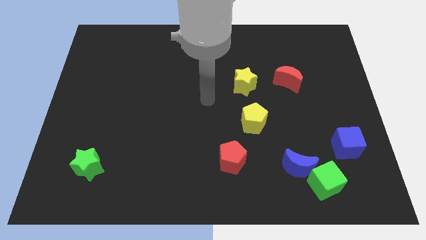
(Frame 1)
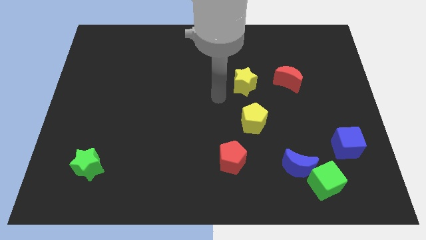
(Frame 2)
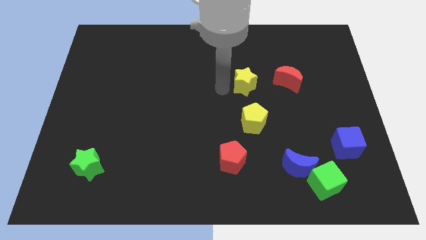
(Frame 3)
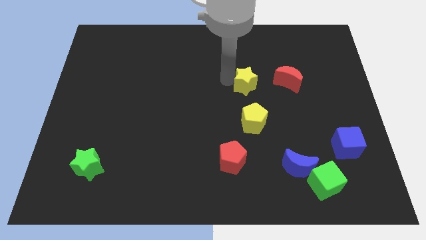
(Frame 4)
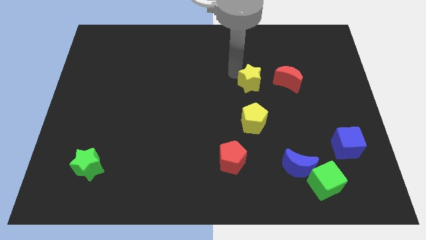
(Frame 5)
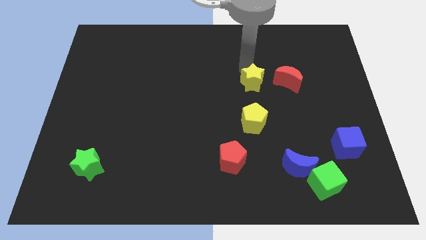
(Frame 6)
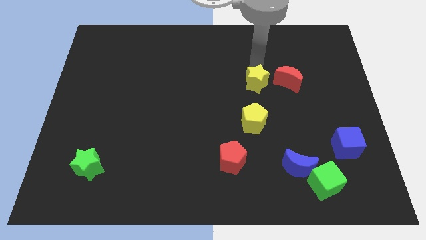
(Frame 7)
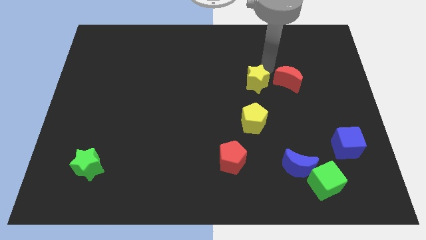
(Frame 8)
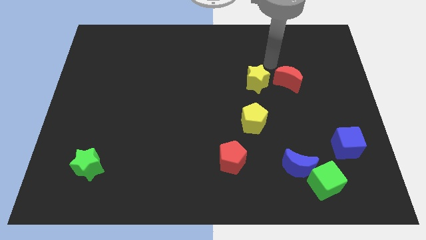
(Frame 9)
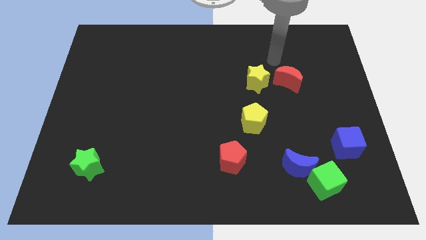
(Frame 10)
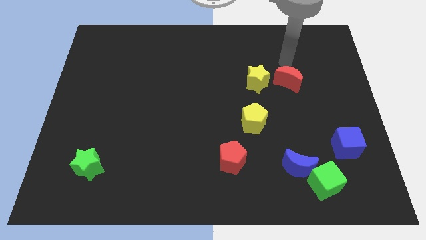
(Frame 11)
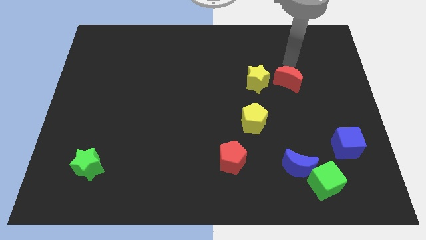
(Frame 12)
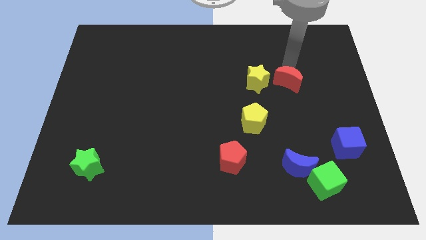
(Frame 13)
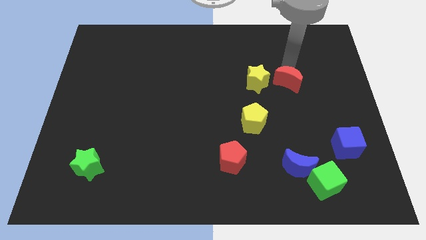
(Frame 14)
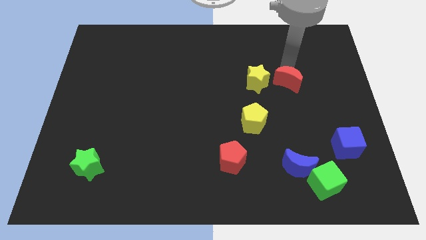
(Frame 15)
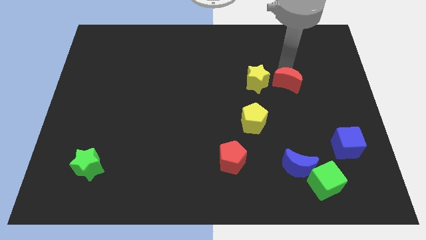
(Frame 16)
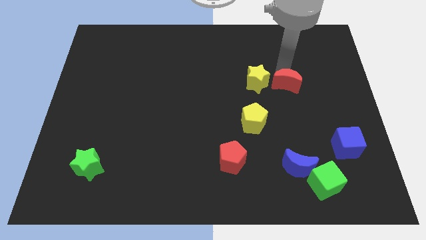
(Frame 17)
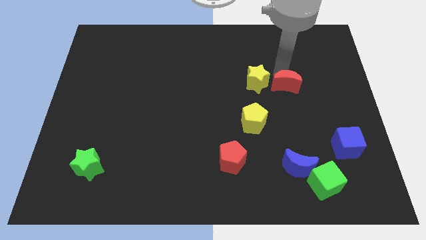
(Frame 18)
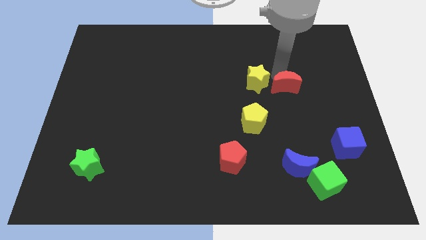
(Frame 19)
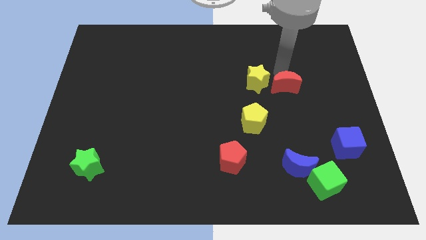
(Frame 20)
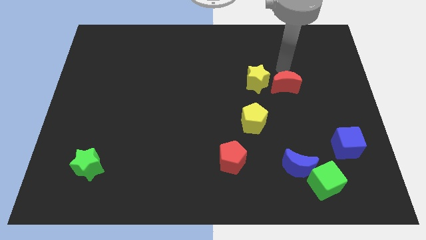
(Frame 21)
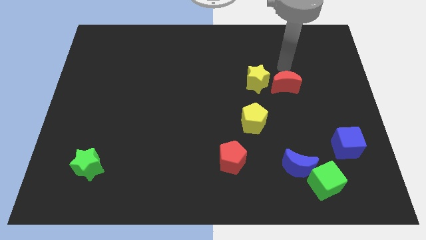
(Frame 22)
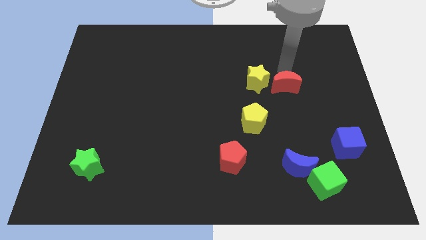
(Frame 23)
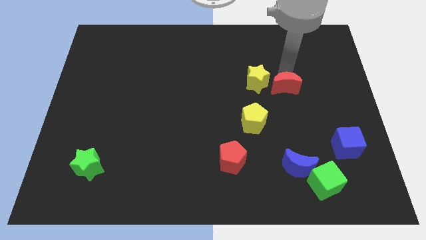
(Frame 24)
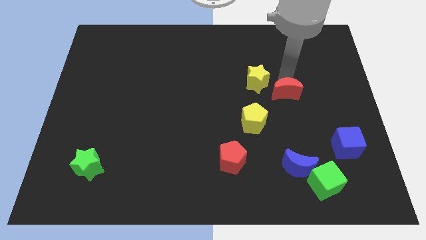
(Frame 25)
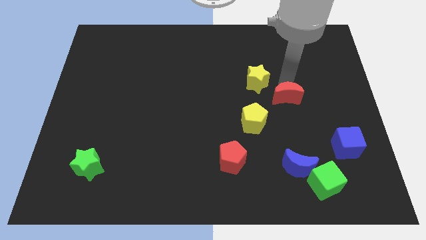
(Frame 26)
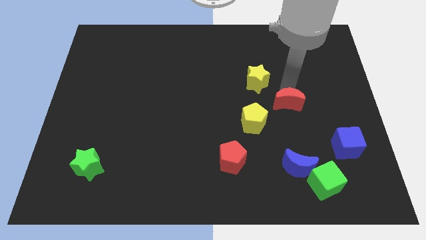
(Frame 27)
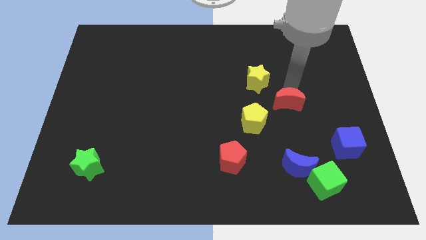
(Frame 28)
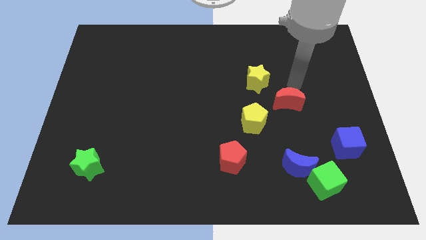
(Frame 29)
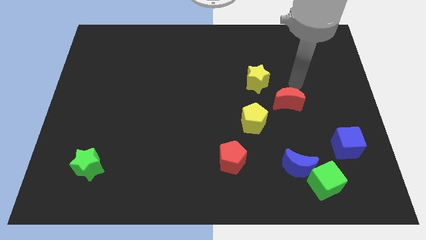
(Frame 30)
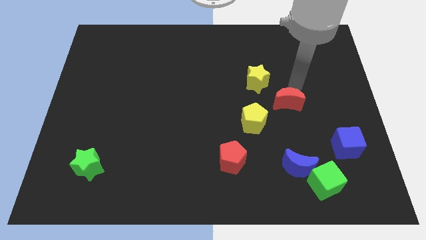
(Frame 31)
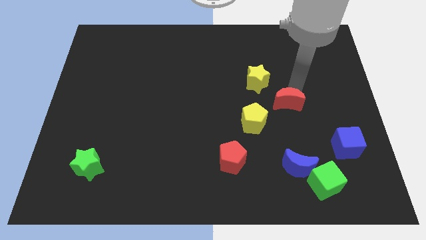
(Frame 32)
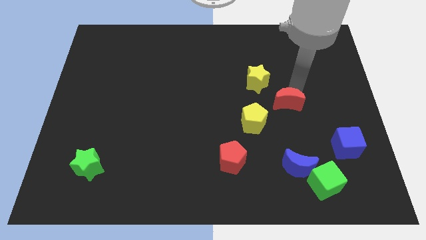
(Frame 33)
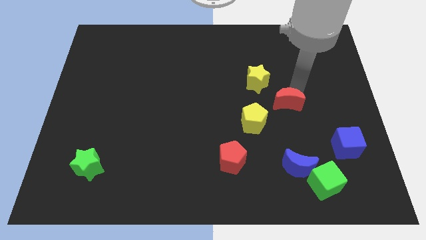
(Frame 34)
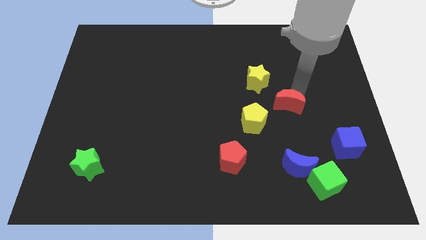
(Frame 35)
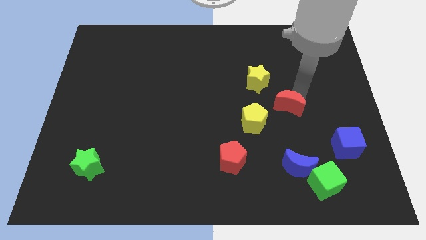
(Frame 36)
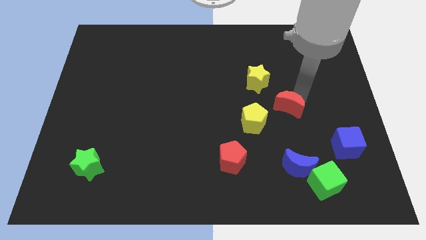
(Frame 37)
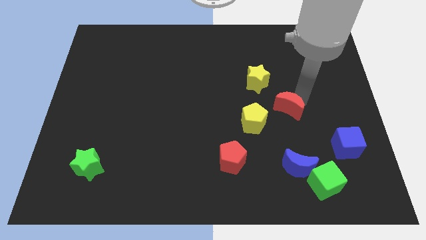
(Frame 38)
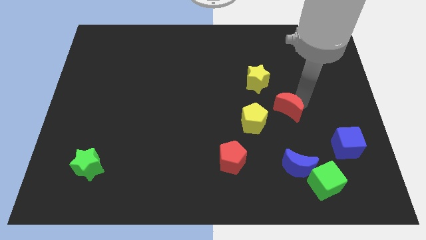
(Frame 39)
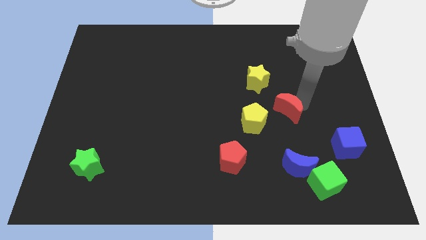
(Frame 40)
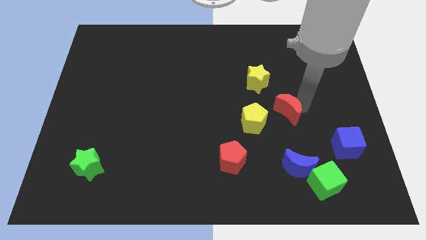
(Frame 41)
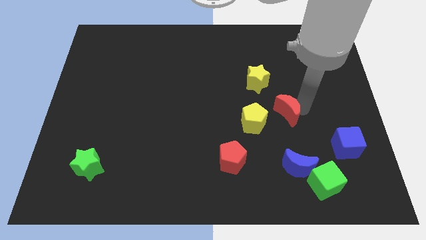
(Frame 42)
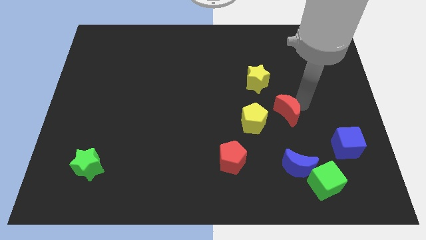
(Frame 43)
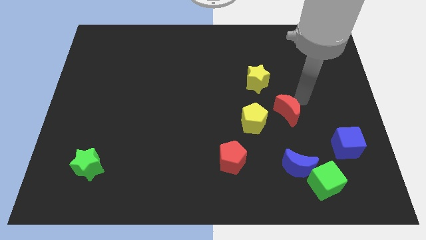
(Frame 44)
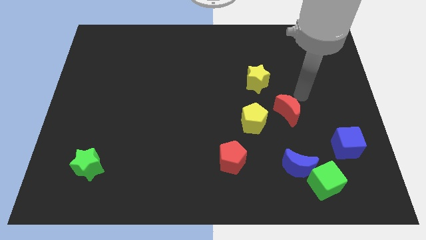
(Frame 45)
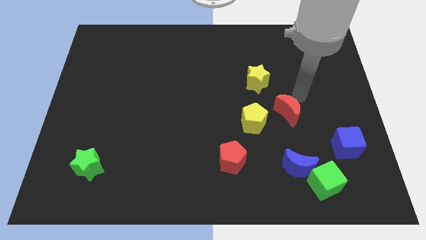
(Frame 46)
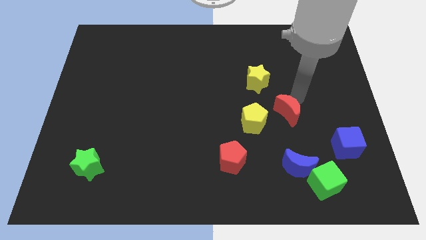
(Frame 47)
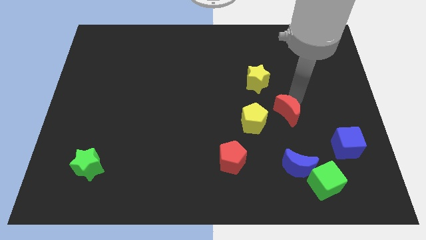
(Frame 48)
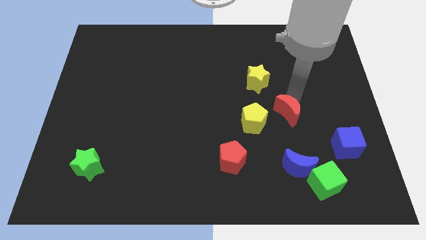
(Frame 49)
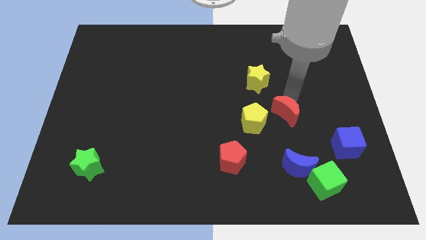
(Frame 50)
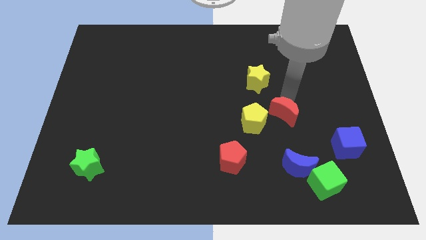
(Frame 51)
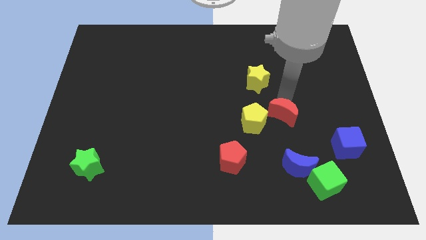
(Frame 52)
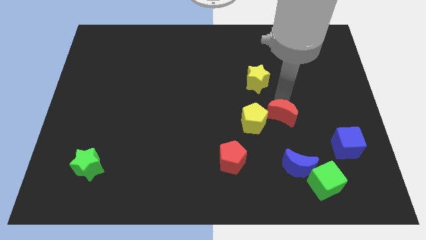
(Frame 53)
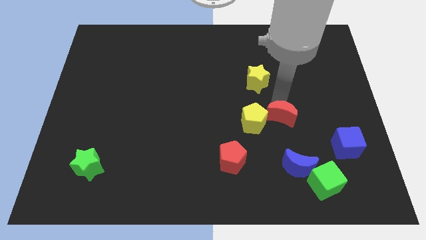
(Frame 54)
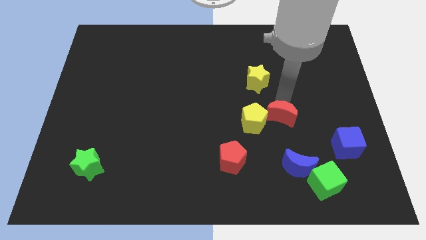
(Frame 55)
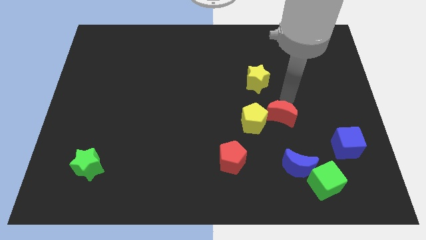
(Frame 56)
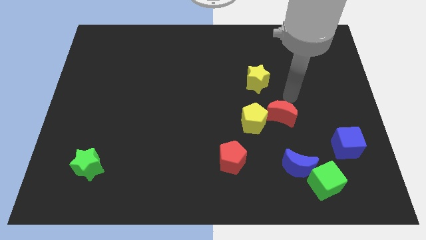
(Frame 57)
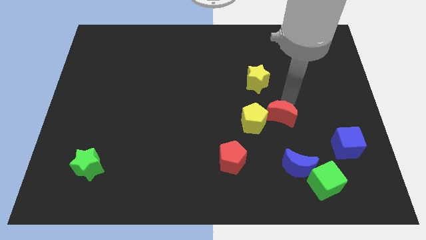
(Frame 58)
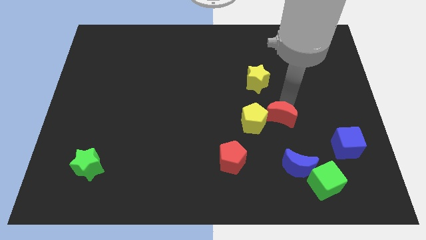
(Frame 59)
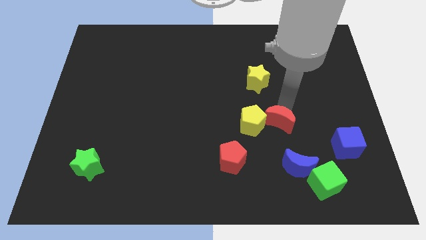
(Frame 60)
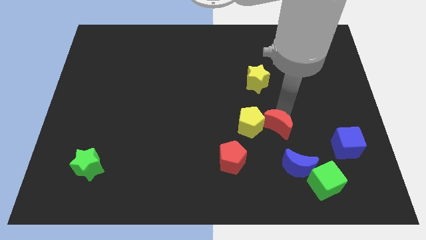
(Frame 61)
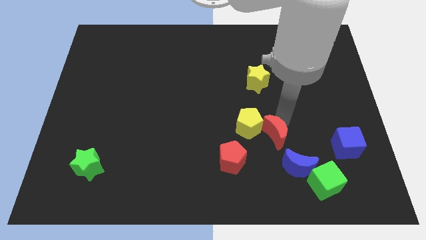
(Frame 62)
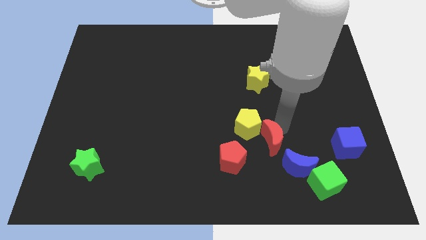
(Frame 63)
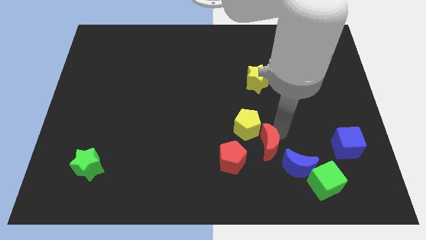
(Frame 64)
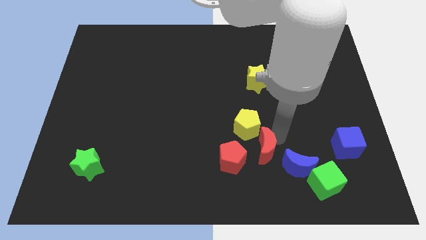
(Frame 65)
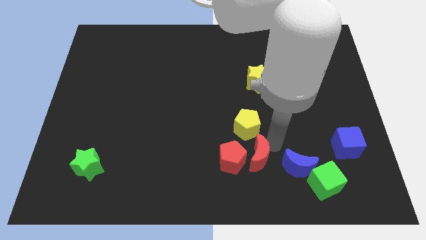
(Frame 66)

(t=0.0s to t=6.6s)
put the red moon to the red pentagon

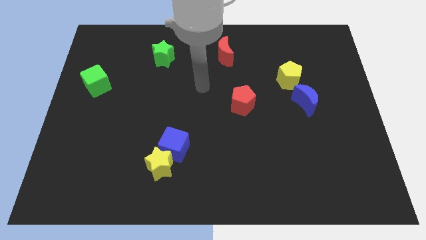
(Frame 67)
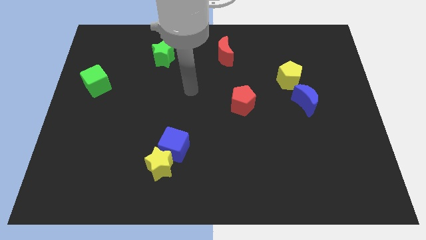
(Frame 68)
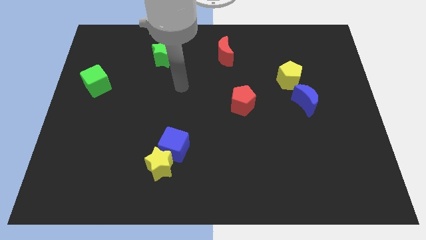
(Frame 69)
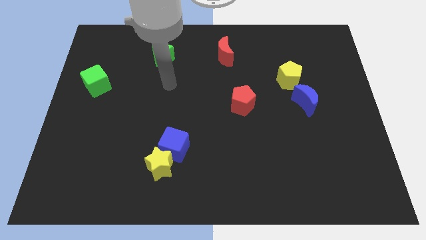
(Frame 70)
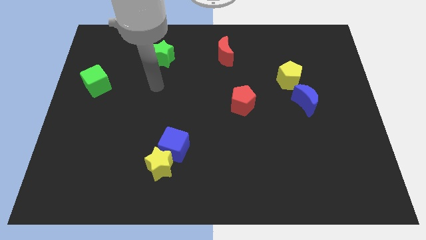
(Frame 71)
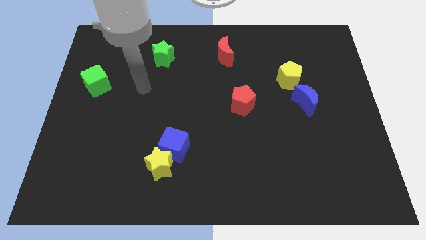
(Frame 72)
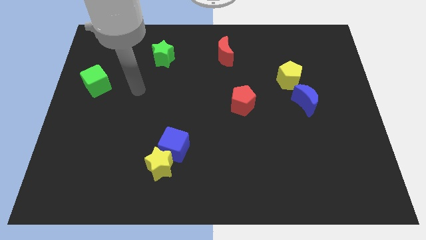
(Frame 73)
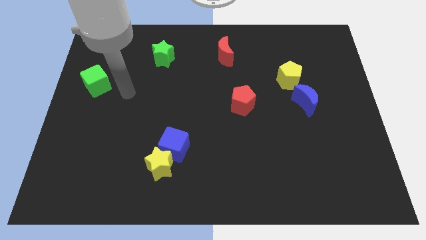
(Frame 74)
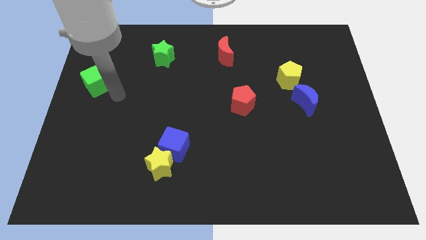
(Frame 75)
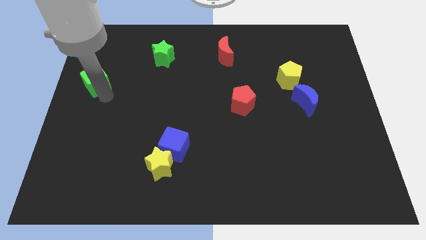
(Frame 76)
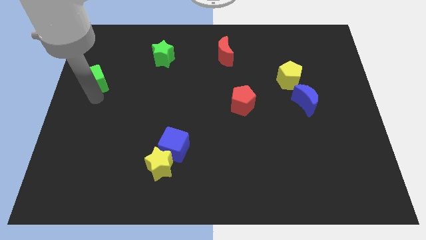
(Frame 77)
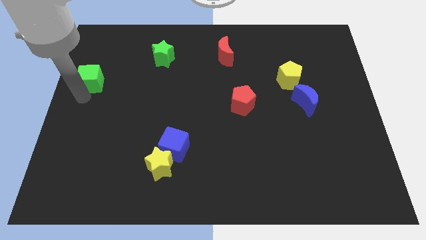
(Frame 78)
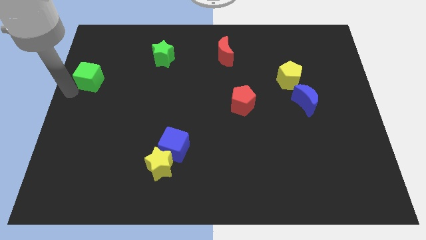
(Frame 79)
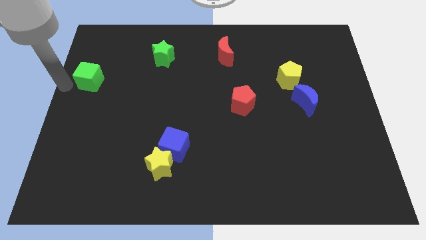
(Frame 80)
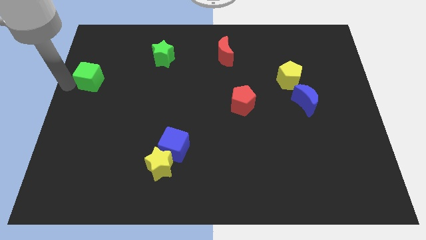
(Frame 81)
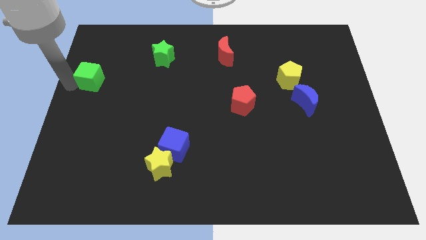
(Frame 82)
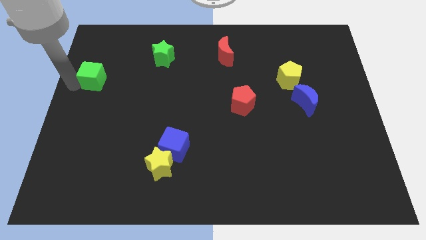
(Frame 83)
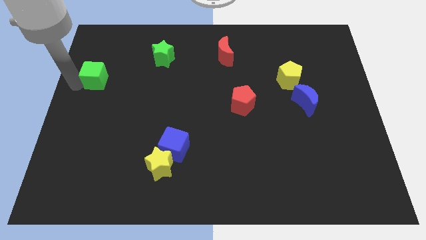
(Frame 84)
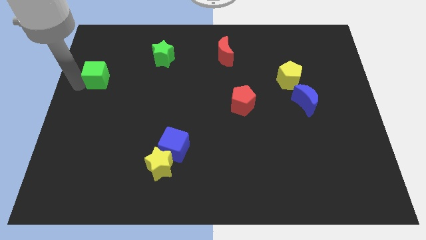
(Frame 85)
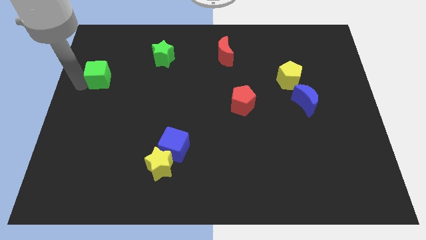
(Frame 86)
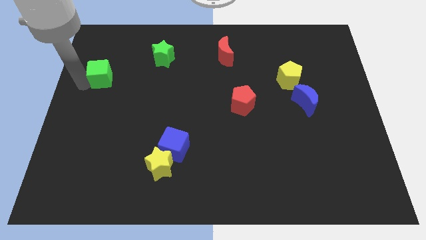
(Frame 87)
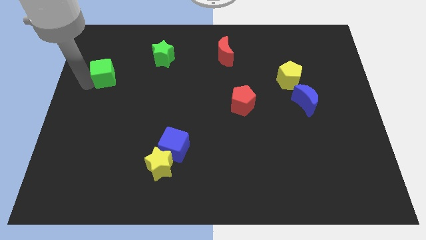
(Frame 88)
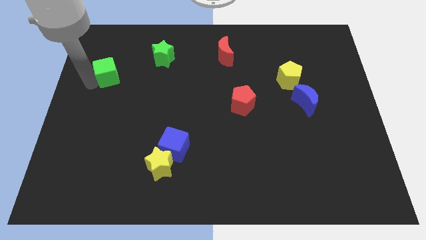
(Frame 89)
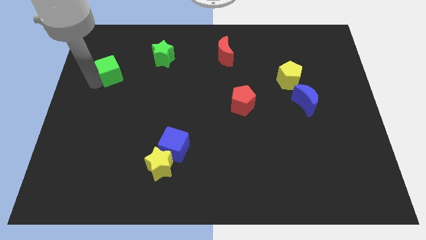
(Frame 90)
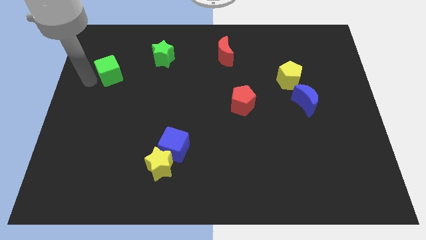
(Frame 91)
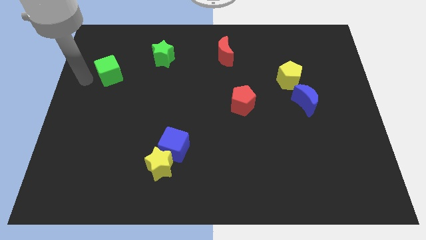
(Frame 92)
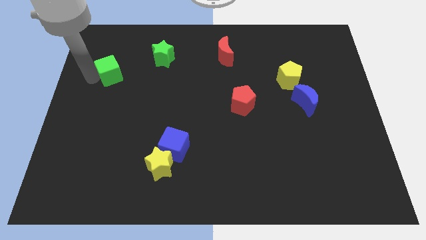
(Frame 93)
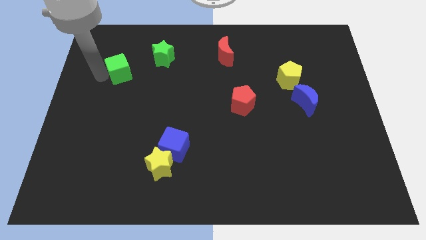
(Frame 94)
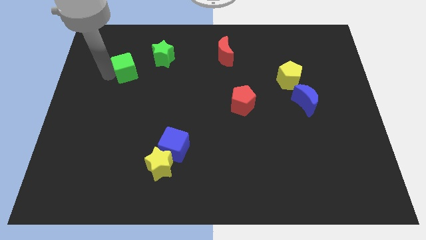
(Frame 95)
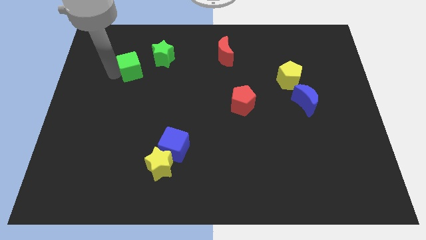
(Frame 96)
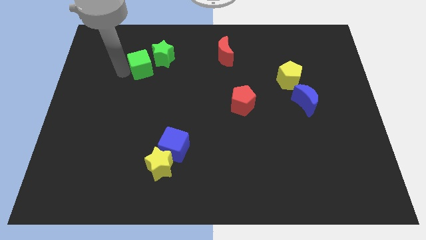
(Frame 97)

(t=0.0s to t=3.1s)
put the green cube next to the green star
